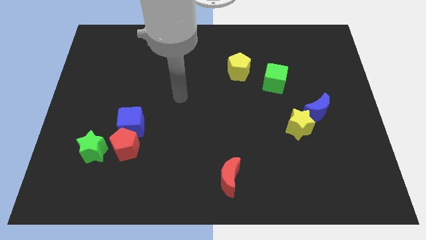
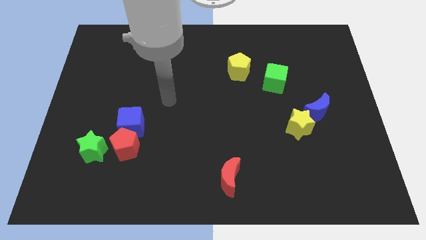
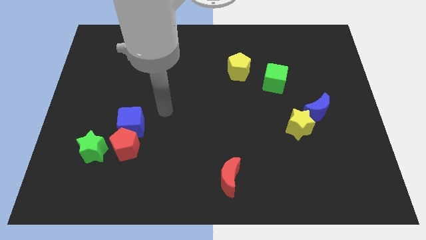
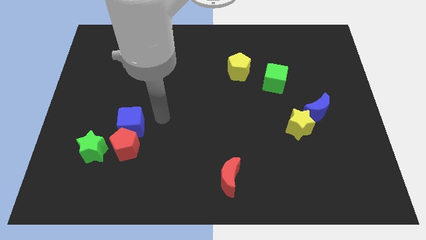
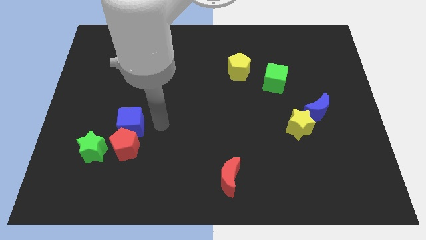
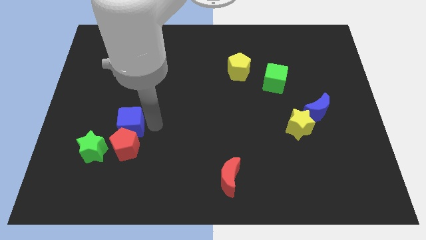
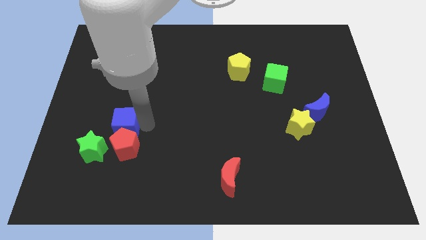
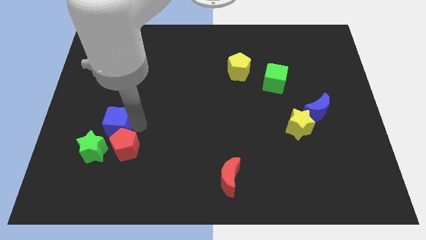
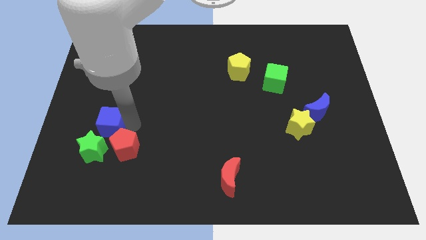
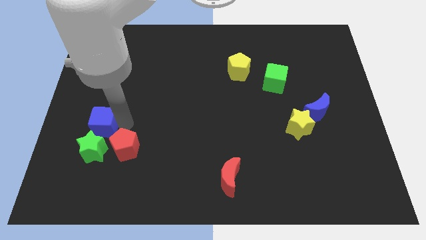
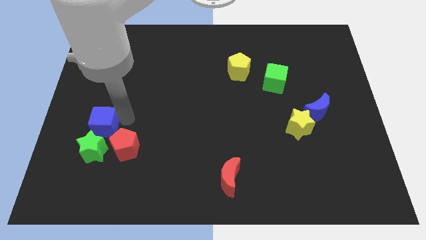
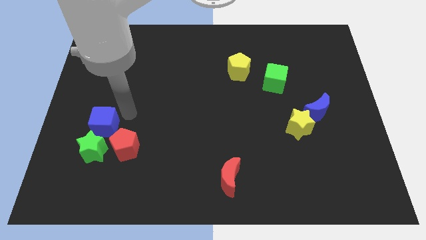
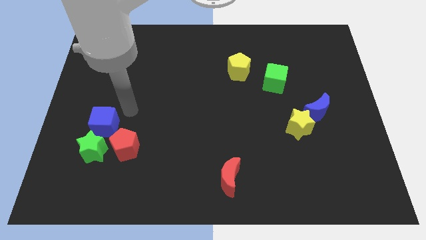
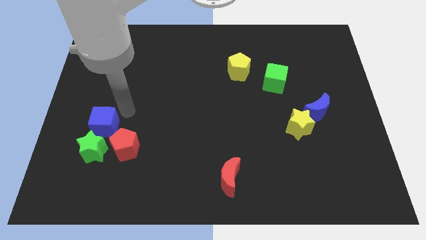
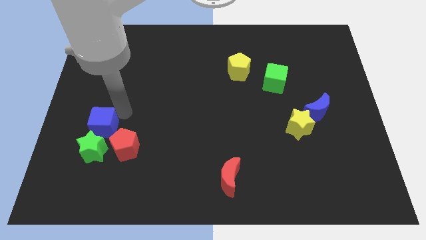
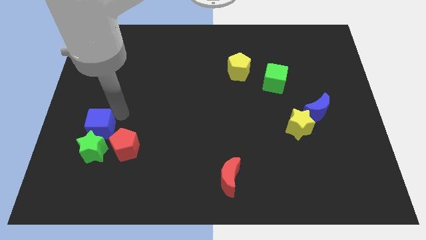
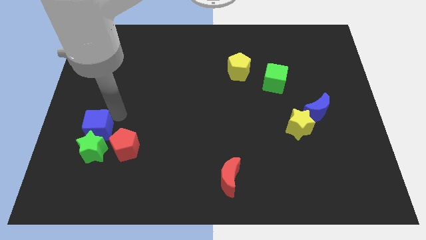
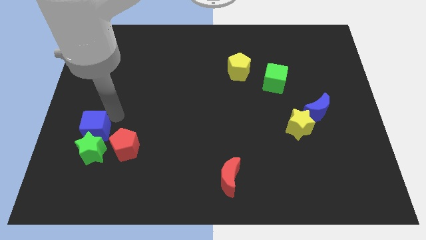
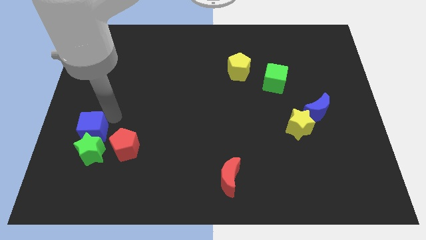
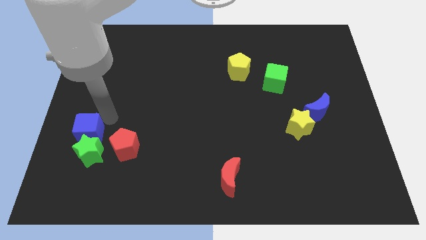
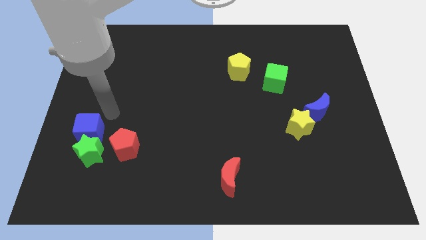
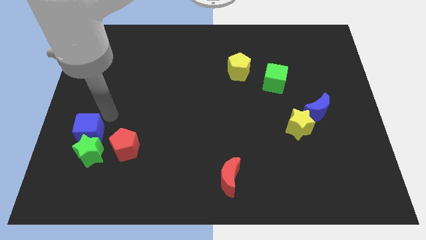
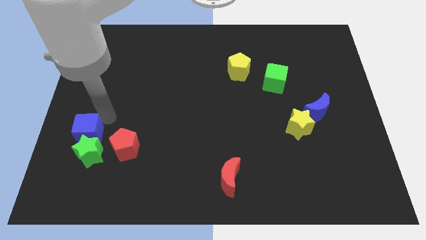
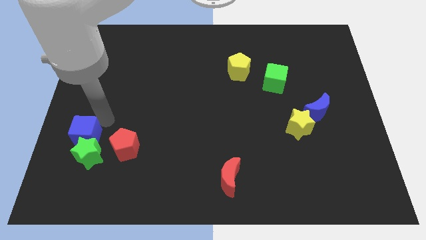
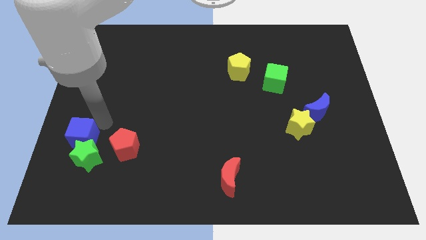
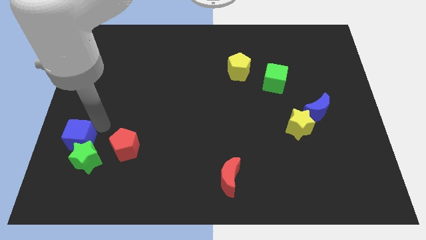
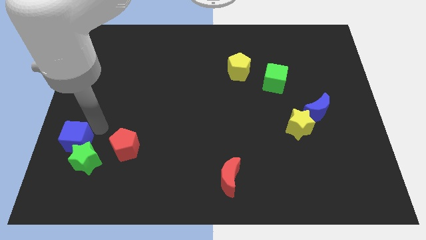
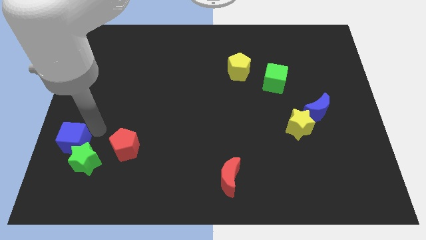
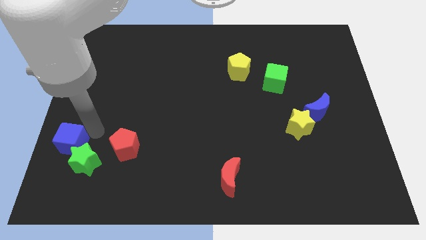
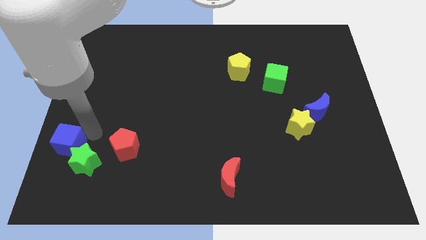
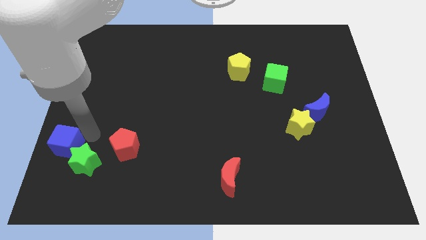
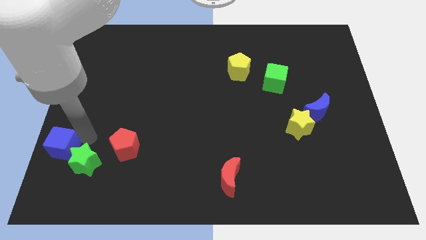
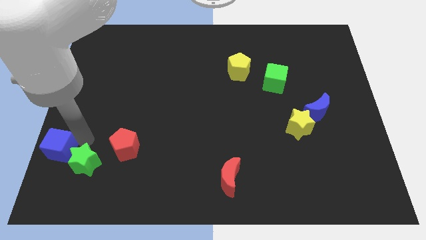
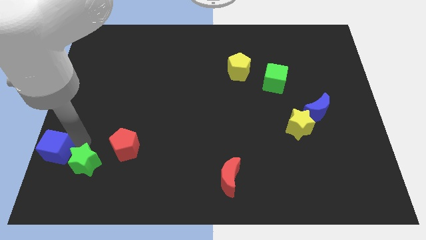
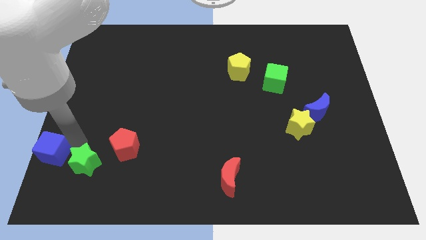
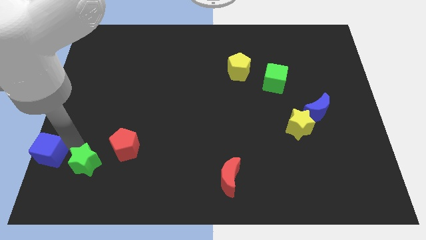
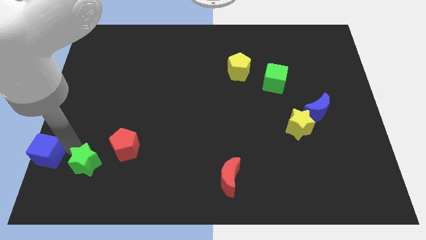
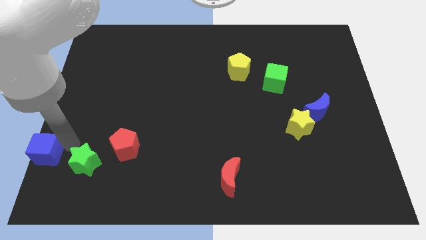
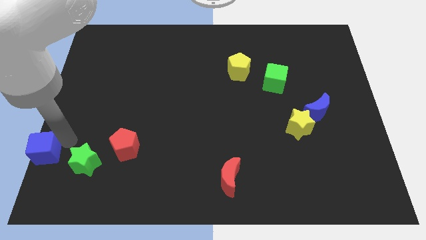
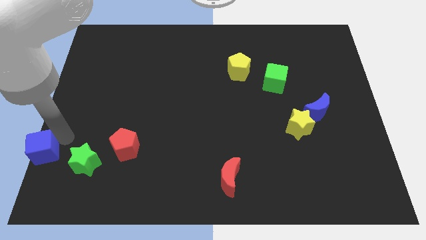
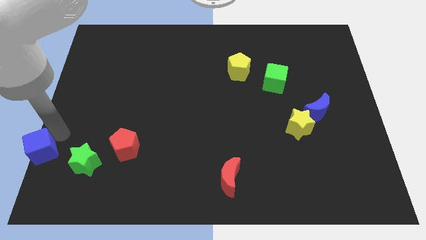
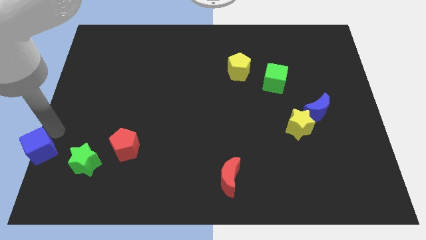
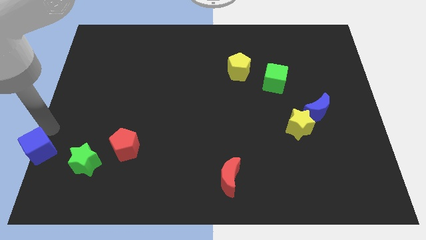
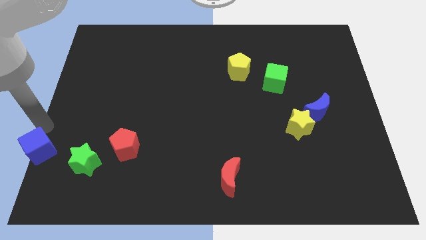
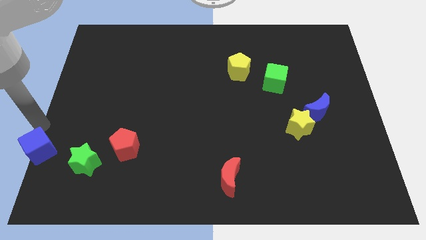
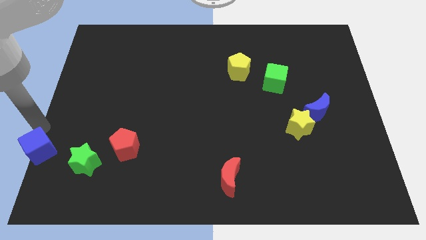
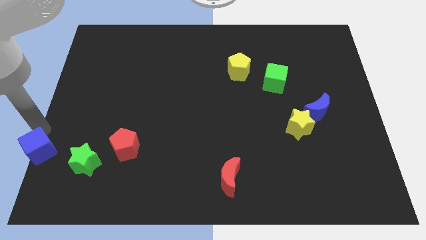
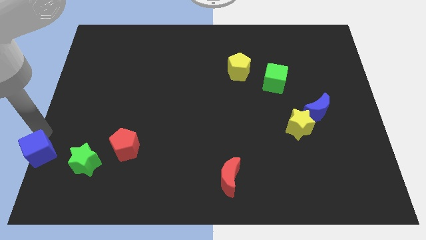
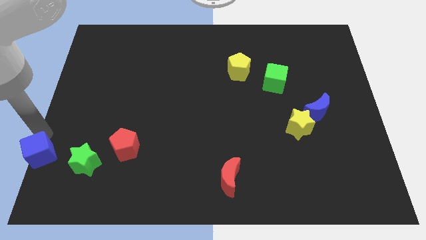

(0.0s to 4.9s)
put the blue cube to the bottom left of the board

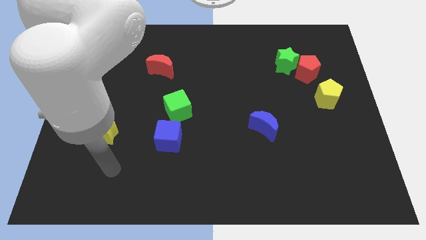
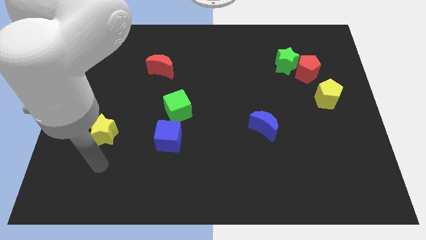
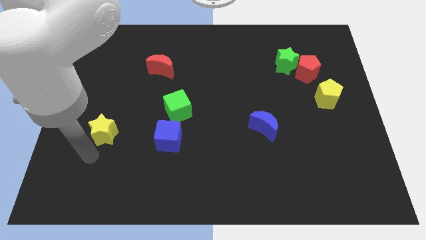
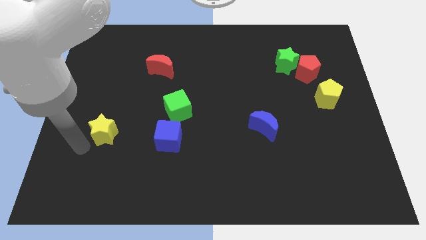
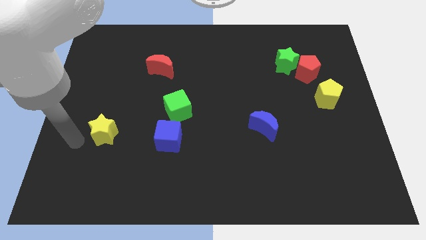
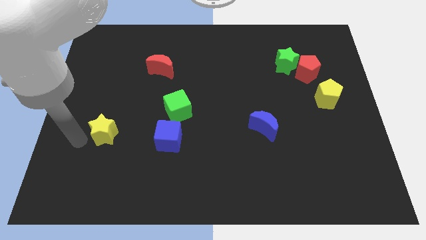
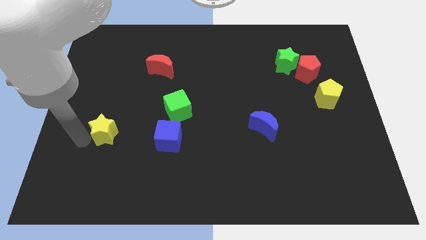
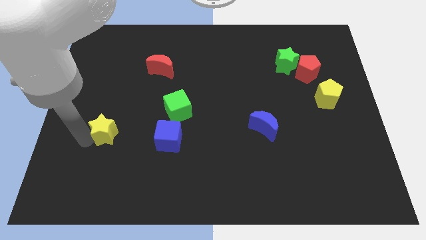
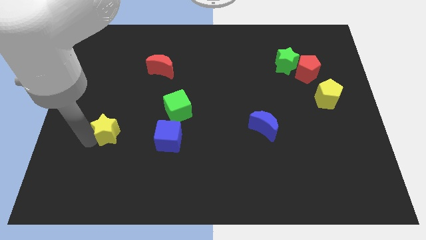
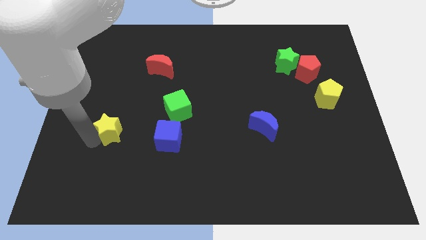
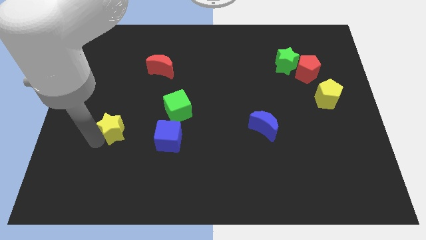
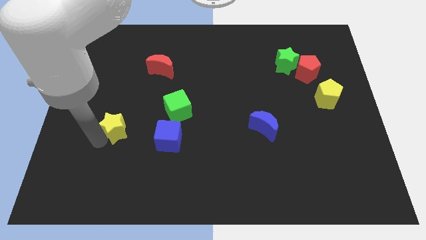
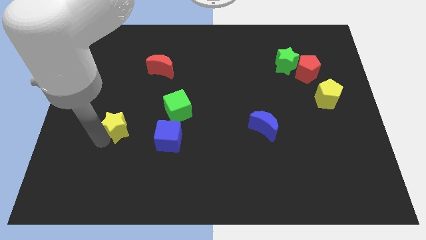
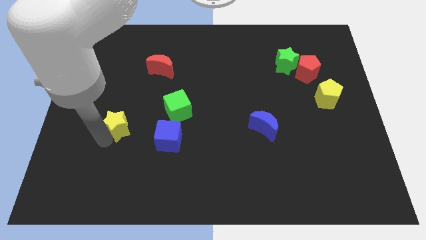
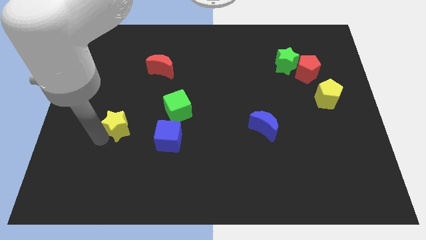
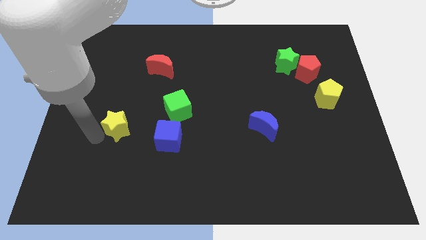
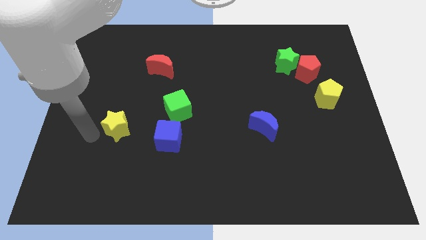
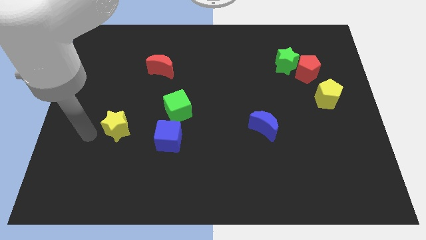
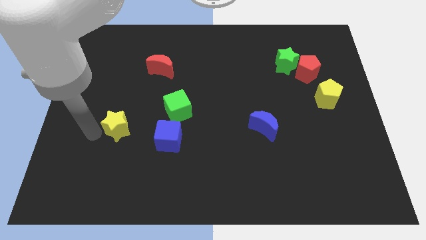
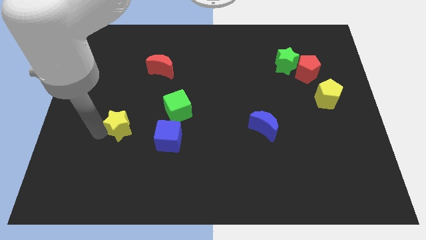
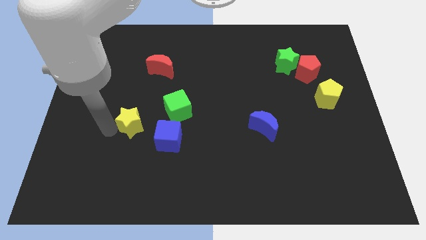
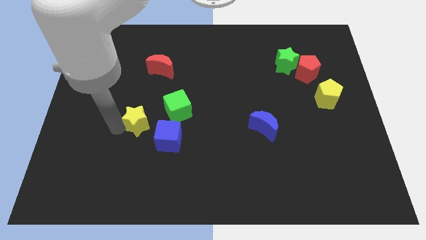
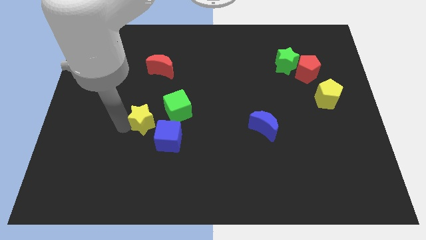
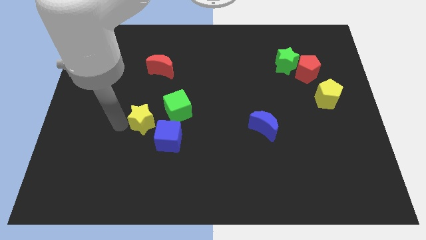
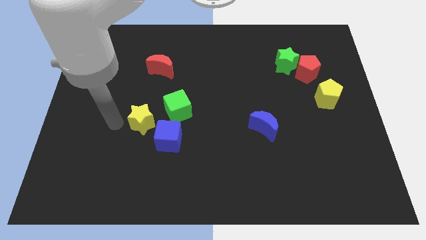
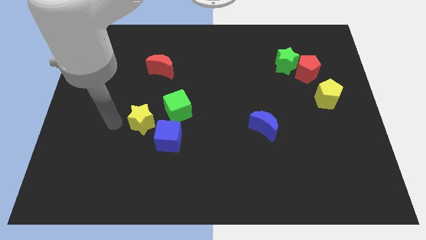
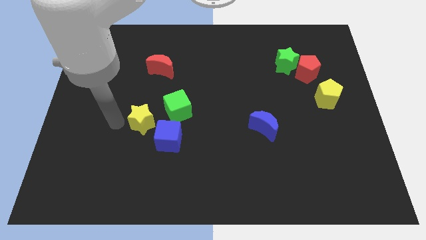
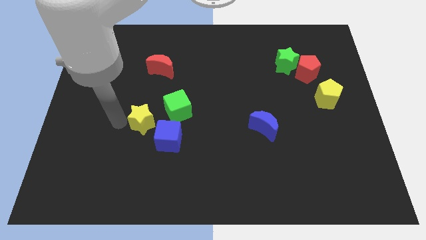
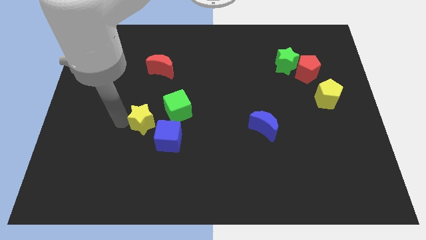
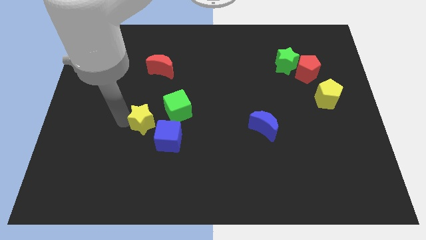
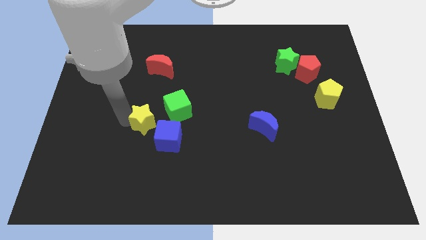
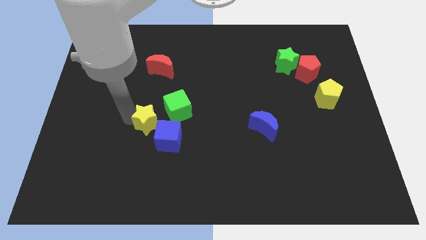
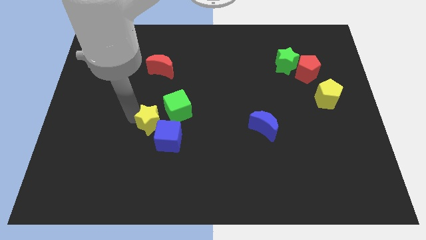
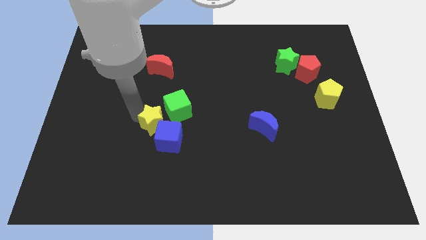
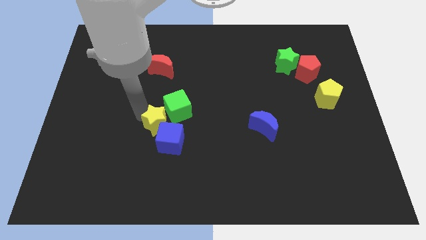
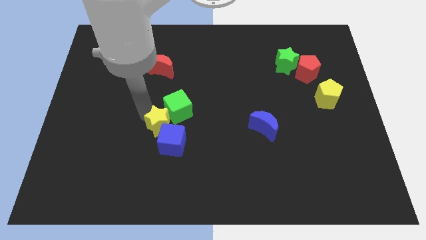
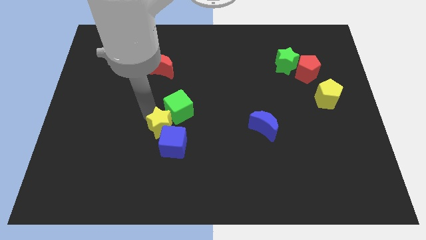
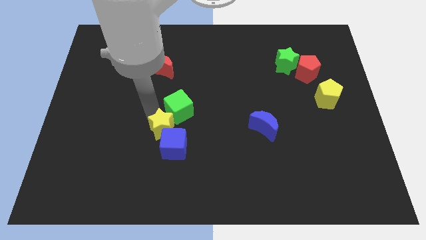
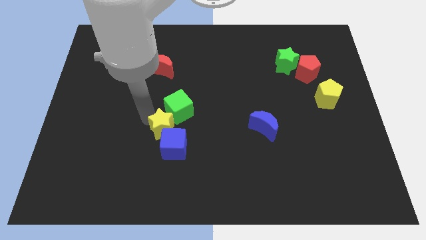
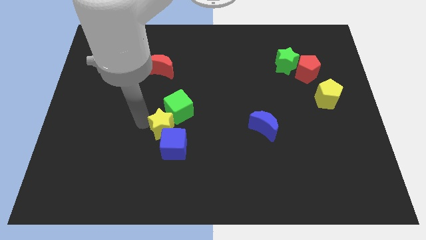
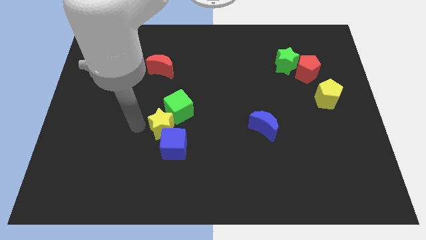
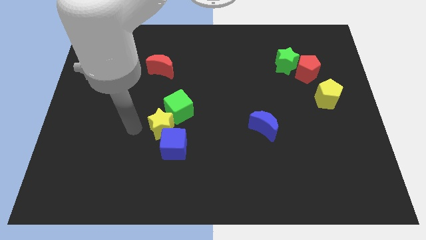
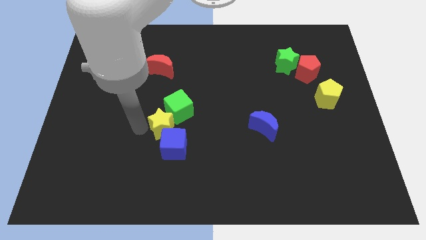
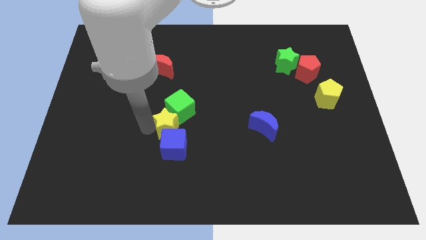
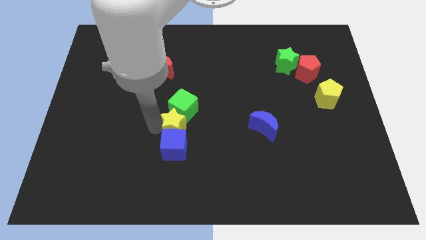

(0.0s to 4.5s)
put the yellow star to the middle of the board
